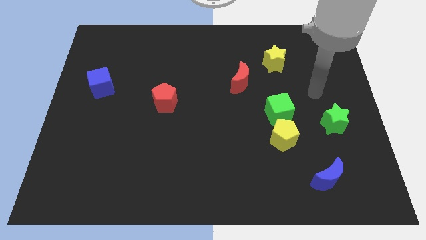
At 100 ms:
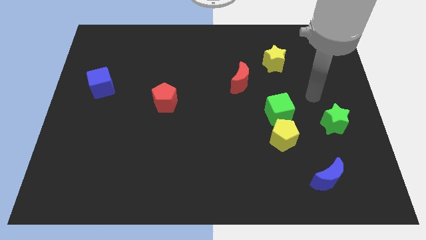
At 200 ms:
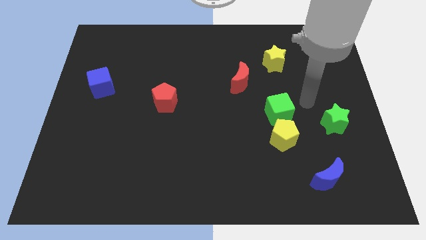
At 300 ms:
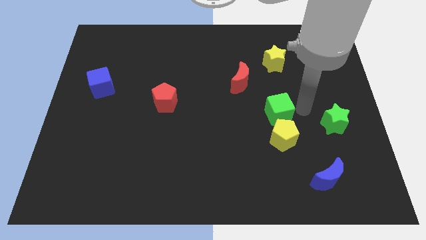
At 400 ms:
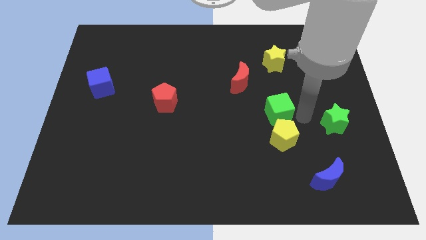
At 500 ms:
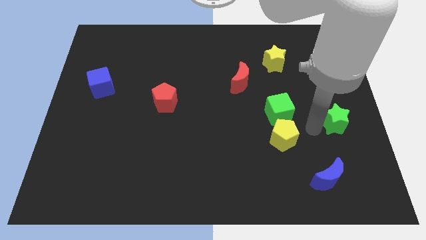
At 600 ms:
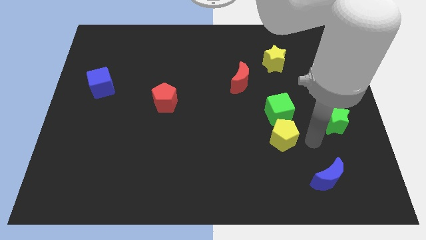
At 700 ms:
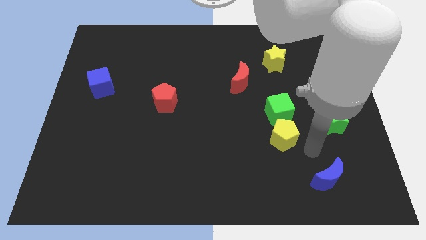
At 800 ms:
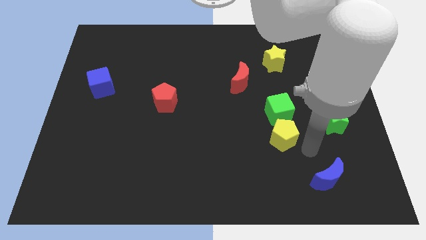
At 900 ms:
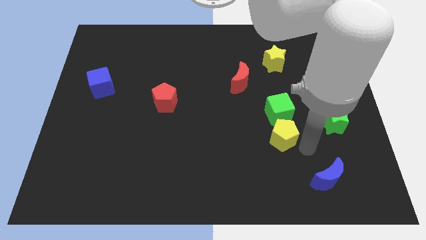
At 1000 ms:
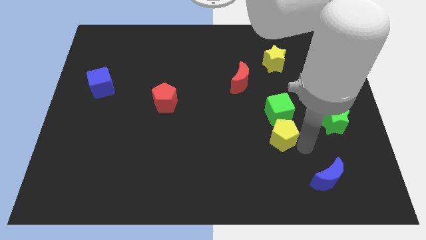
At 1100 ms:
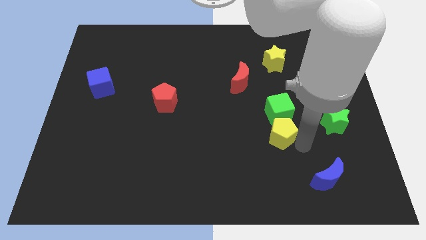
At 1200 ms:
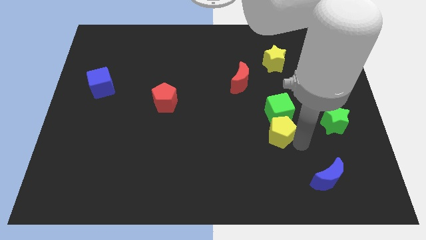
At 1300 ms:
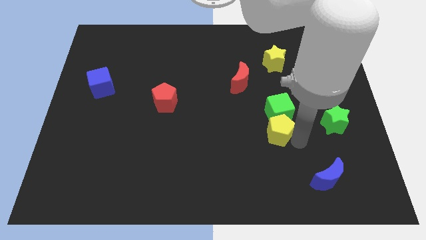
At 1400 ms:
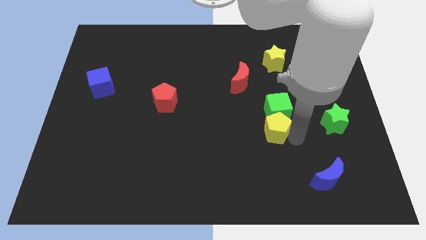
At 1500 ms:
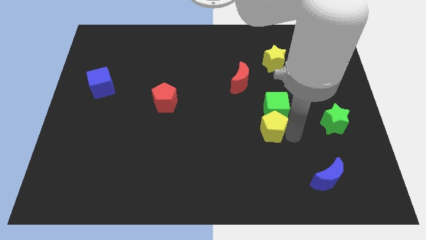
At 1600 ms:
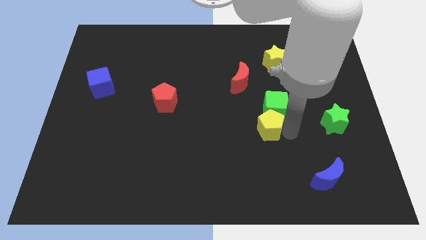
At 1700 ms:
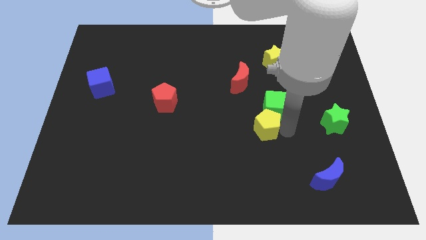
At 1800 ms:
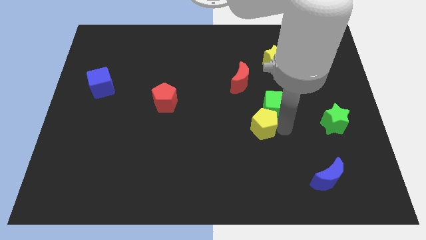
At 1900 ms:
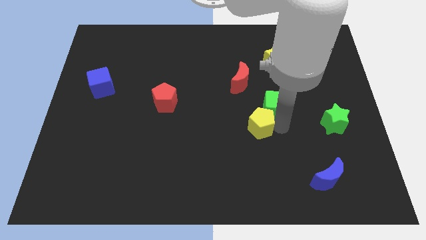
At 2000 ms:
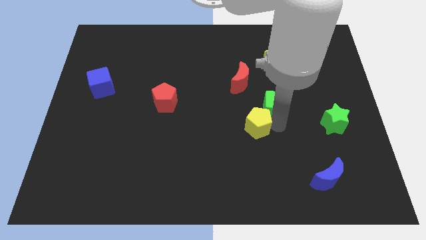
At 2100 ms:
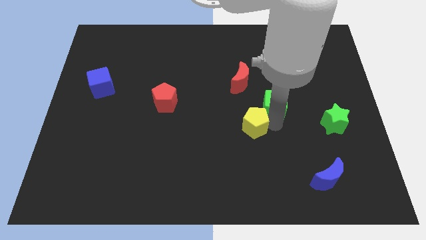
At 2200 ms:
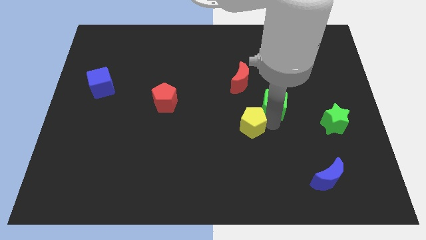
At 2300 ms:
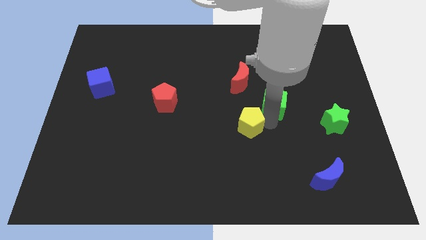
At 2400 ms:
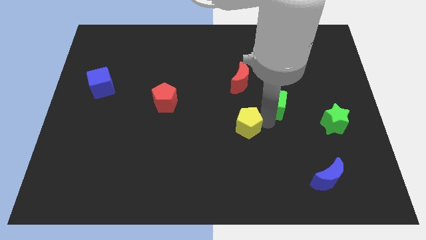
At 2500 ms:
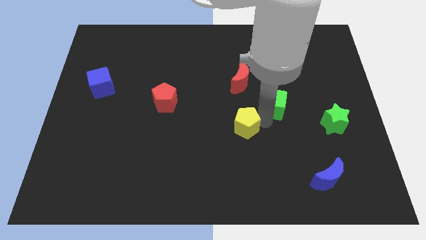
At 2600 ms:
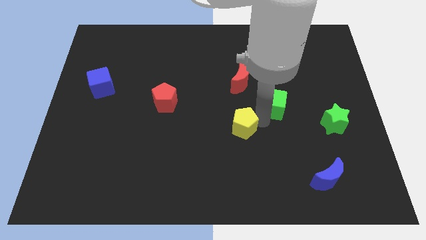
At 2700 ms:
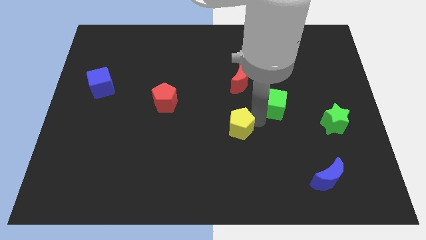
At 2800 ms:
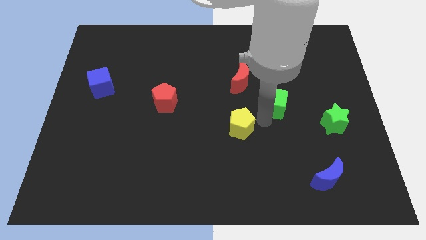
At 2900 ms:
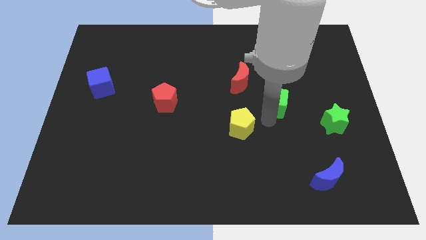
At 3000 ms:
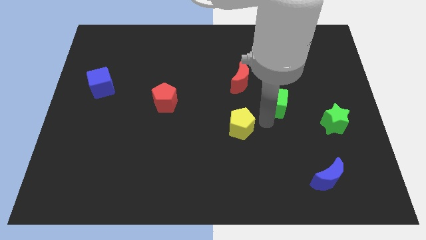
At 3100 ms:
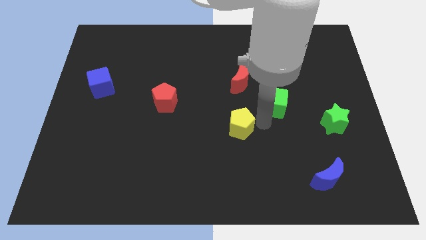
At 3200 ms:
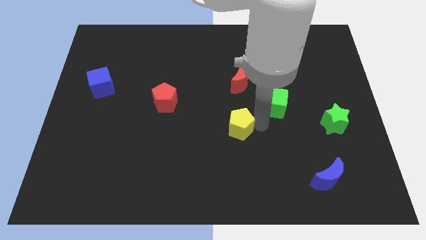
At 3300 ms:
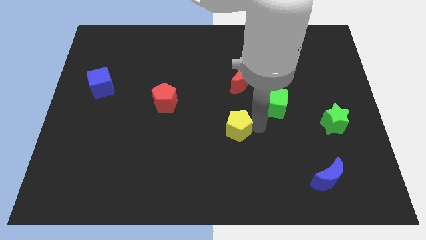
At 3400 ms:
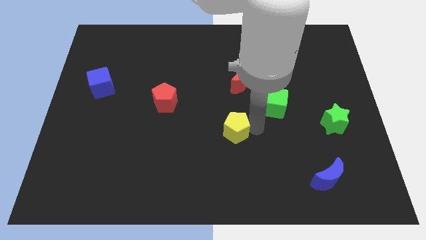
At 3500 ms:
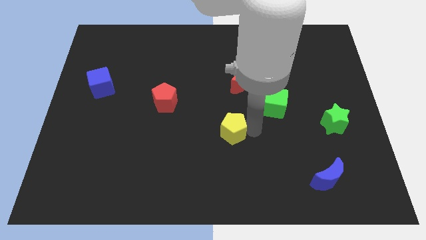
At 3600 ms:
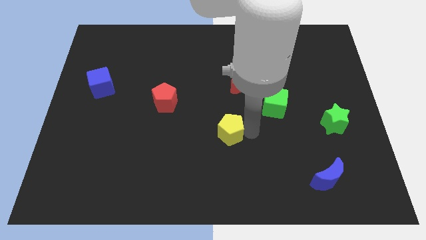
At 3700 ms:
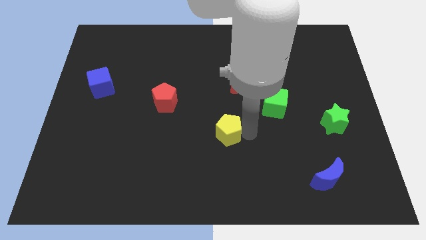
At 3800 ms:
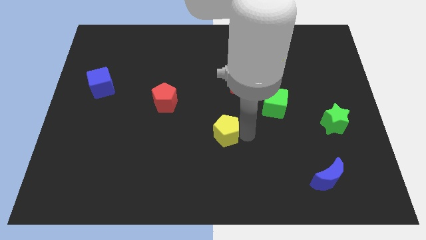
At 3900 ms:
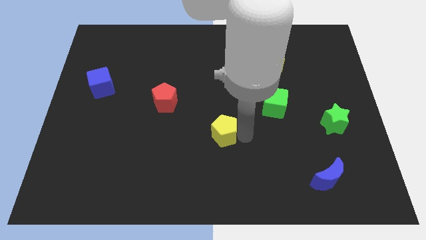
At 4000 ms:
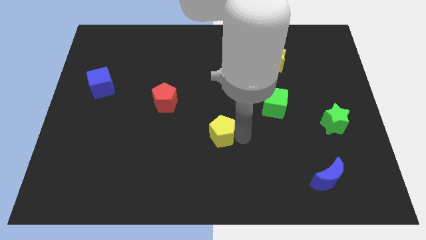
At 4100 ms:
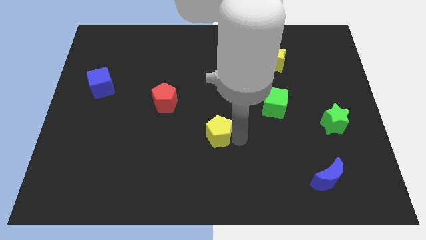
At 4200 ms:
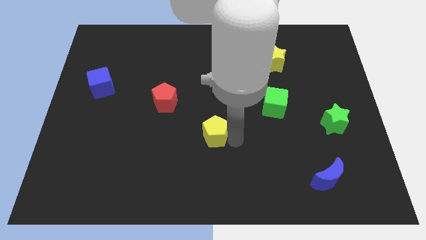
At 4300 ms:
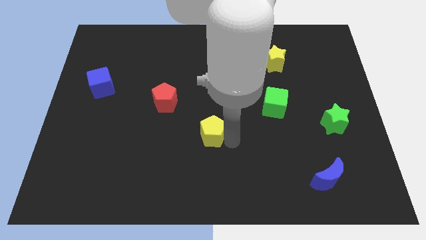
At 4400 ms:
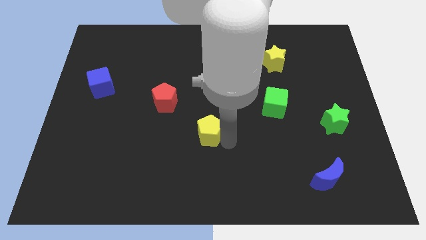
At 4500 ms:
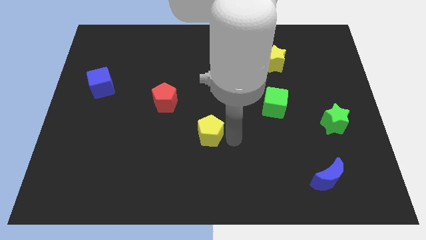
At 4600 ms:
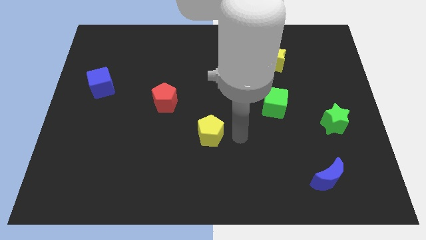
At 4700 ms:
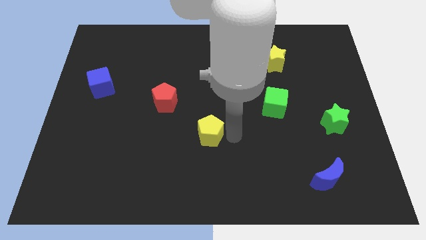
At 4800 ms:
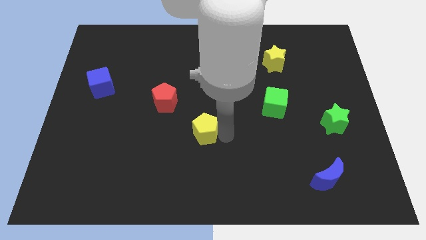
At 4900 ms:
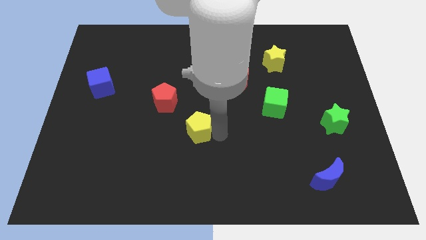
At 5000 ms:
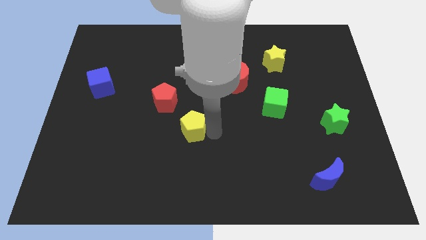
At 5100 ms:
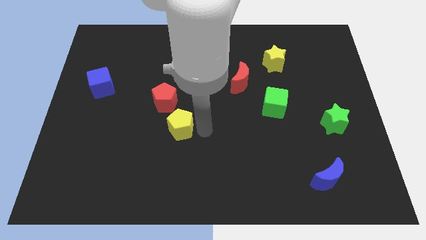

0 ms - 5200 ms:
move the yellow pentagon to the left

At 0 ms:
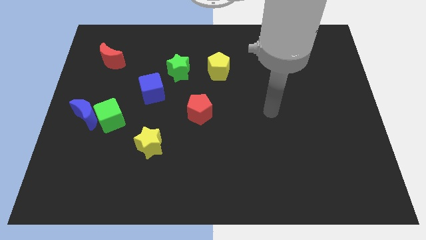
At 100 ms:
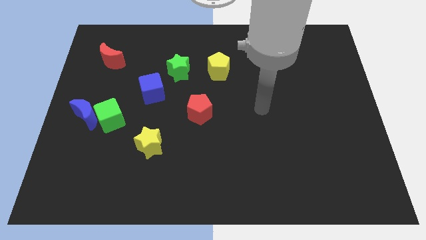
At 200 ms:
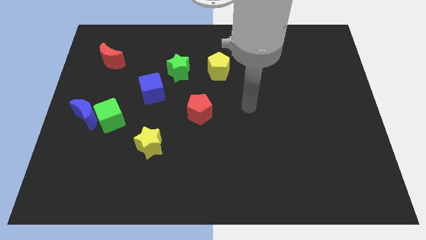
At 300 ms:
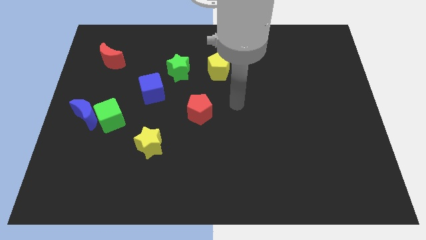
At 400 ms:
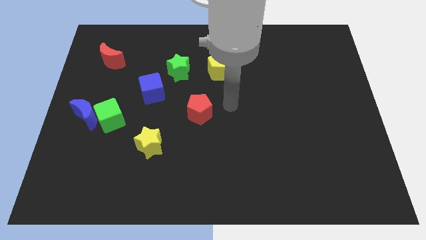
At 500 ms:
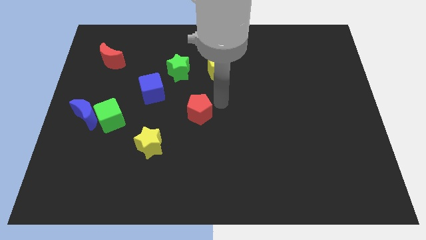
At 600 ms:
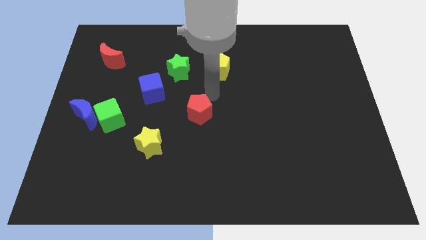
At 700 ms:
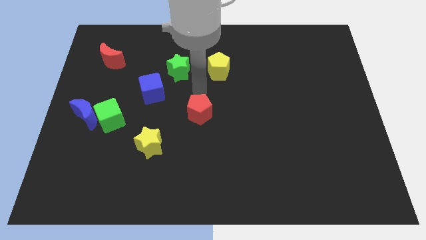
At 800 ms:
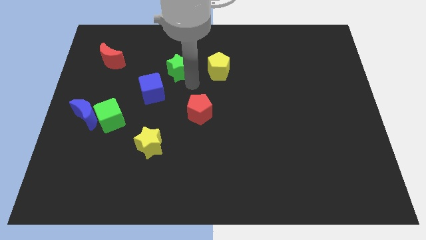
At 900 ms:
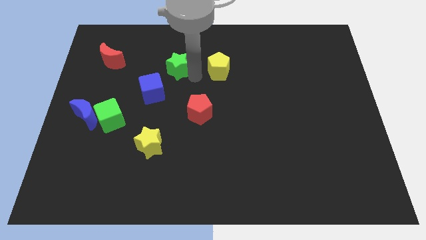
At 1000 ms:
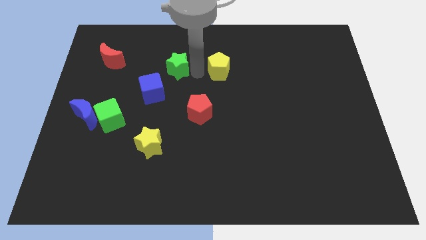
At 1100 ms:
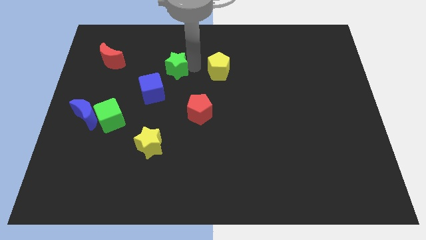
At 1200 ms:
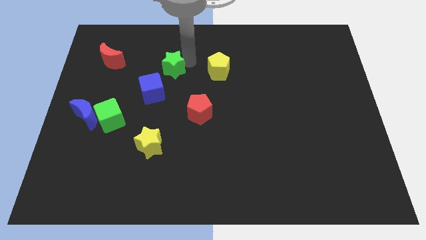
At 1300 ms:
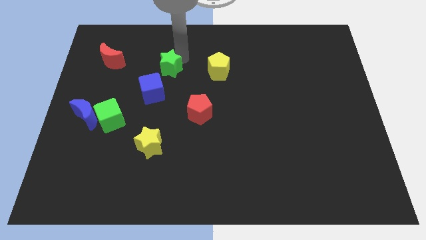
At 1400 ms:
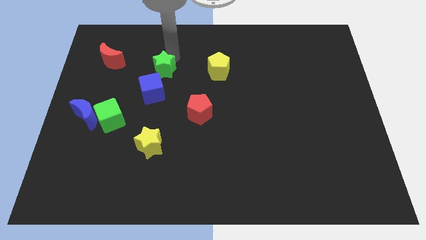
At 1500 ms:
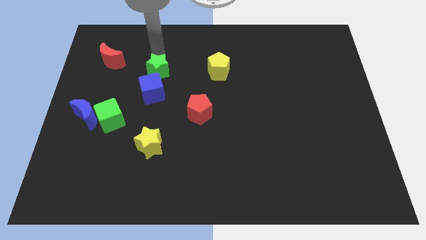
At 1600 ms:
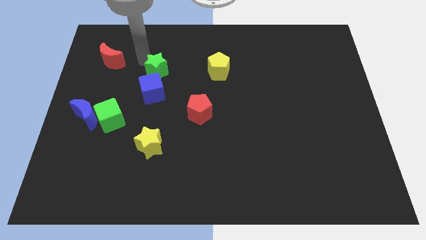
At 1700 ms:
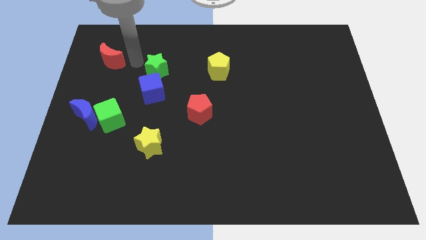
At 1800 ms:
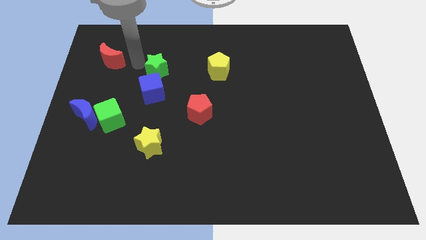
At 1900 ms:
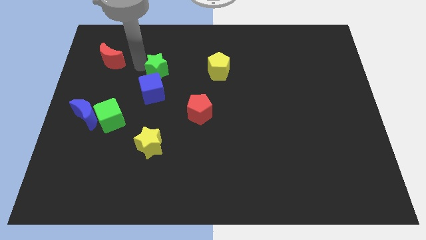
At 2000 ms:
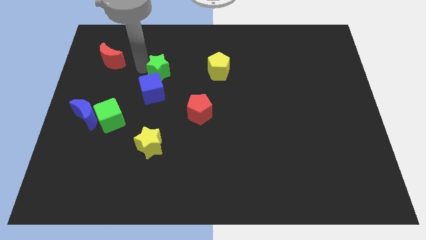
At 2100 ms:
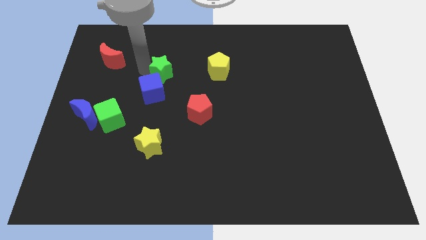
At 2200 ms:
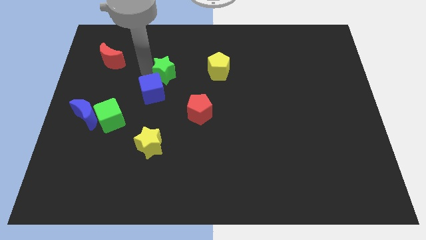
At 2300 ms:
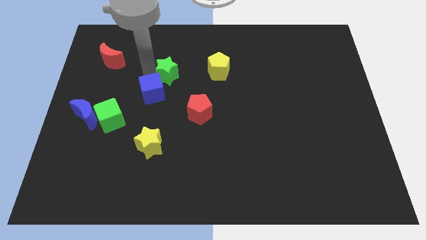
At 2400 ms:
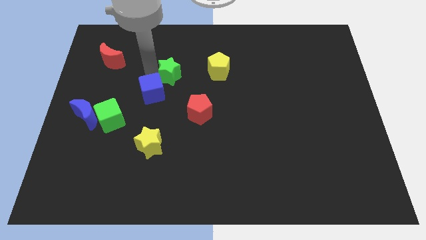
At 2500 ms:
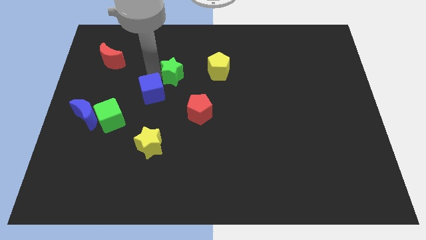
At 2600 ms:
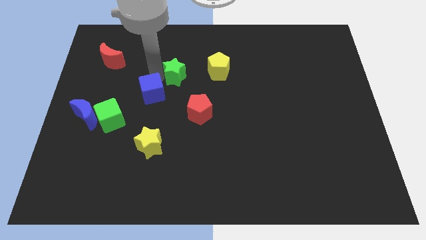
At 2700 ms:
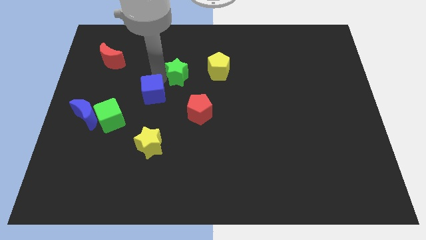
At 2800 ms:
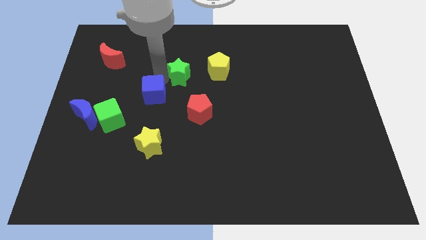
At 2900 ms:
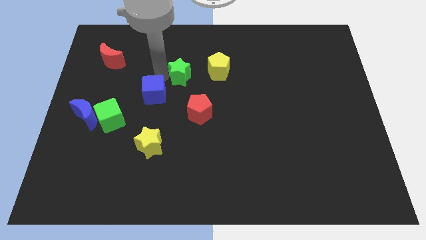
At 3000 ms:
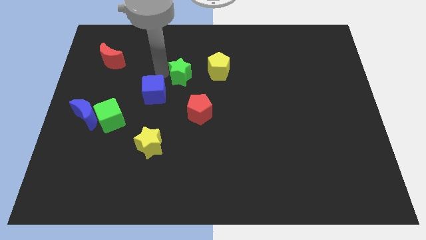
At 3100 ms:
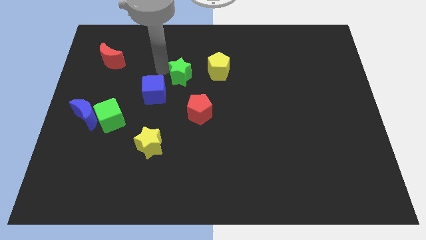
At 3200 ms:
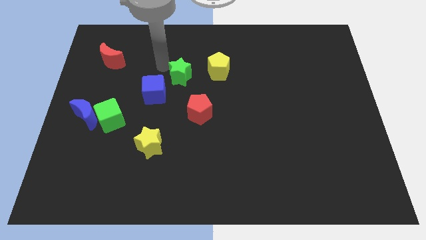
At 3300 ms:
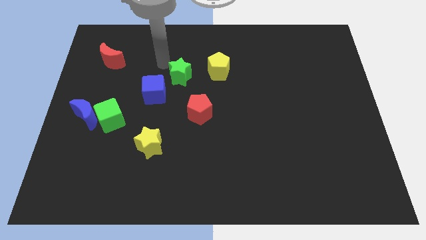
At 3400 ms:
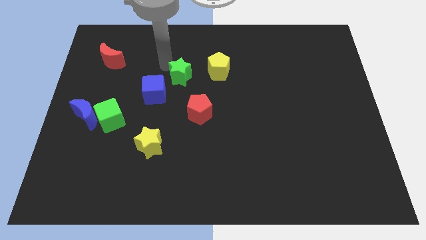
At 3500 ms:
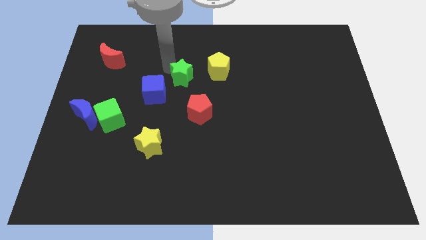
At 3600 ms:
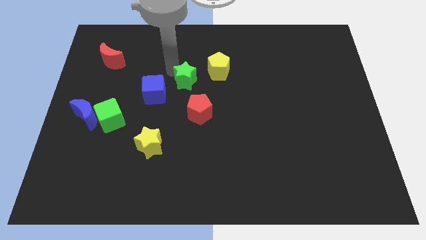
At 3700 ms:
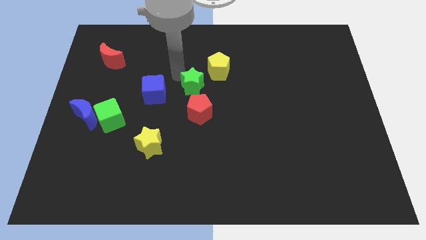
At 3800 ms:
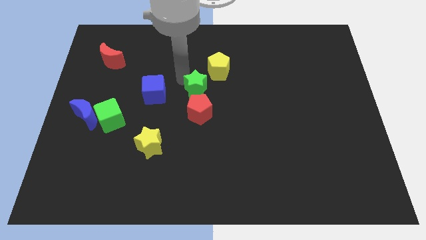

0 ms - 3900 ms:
slide the green star down and then to the right somewhat
